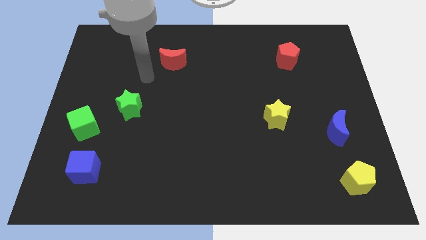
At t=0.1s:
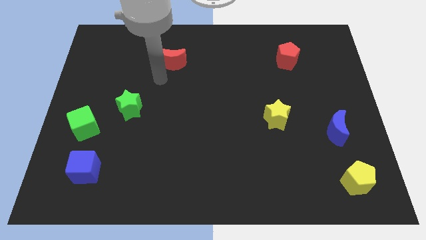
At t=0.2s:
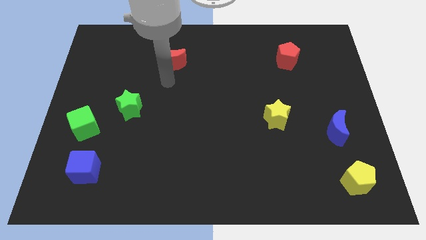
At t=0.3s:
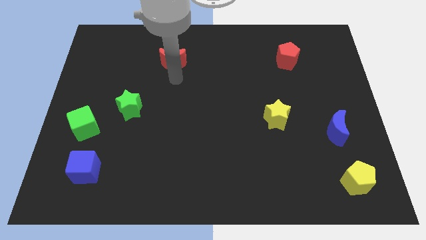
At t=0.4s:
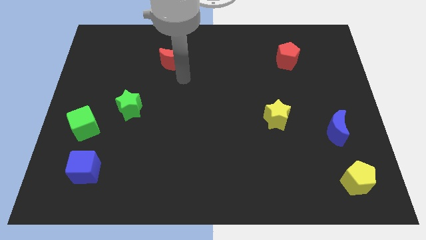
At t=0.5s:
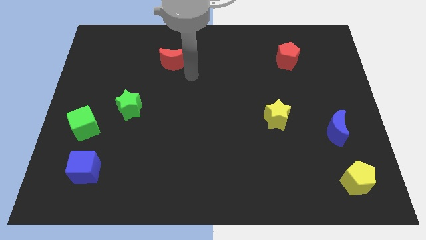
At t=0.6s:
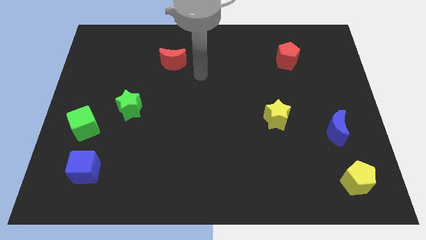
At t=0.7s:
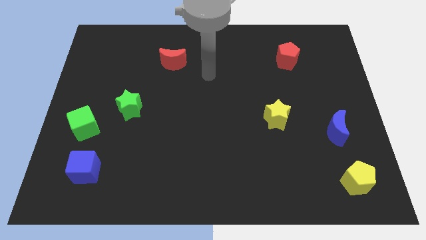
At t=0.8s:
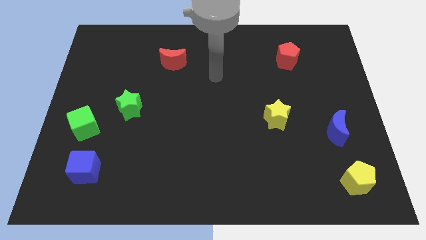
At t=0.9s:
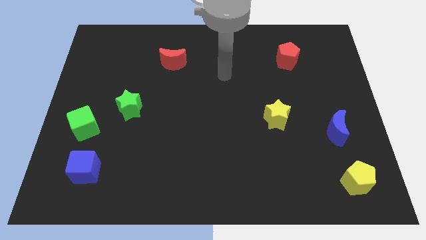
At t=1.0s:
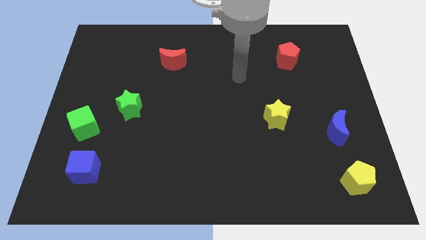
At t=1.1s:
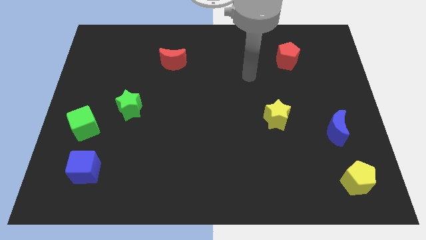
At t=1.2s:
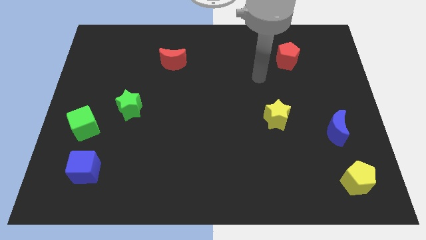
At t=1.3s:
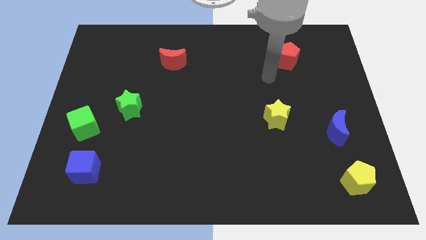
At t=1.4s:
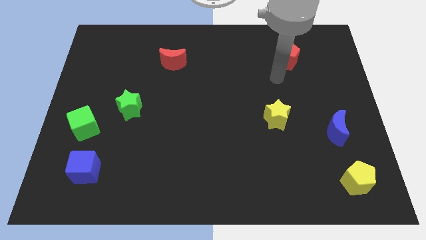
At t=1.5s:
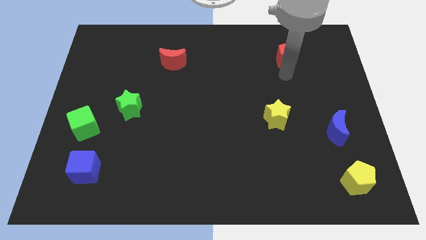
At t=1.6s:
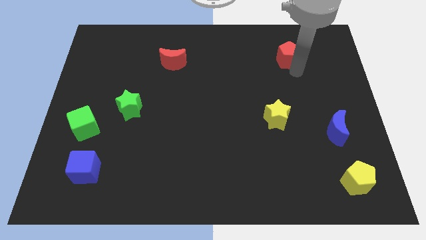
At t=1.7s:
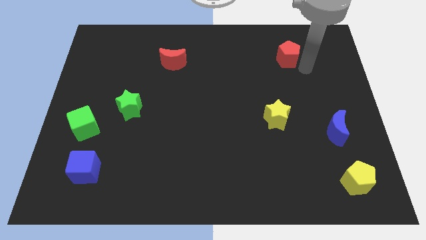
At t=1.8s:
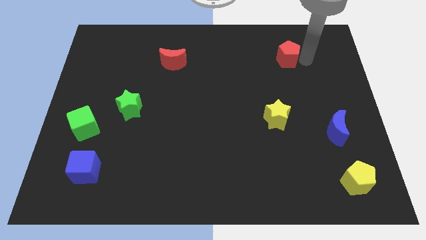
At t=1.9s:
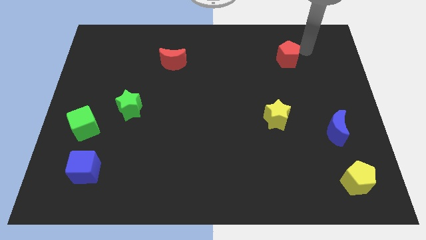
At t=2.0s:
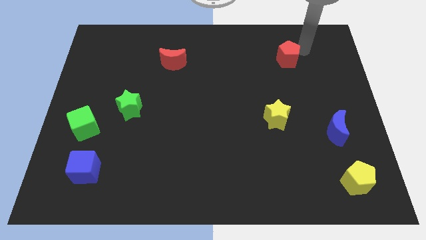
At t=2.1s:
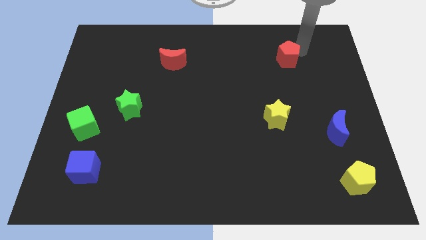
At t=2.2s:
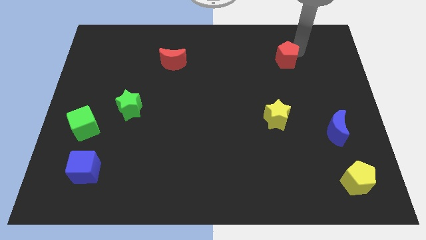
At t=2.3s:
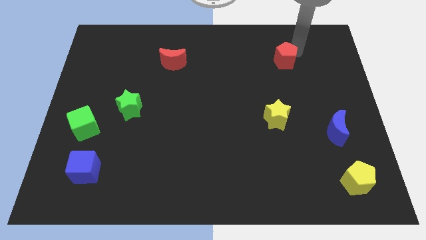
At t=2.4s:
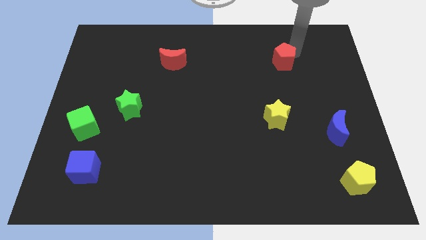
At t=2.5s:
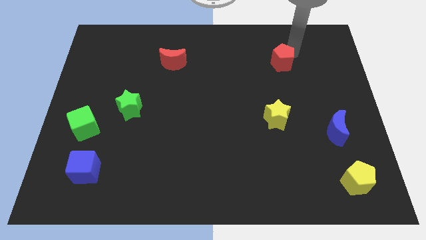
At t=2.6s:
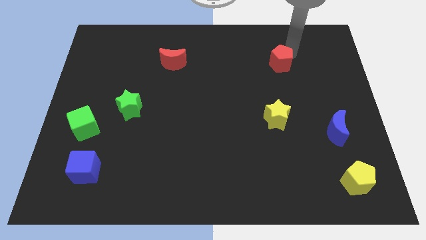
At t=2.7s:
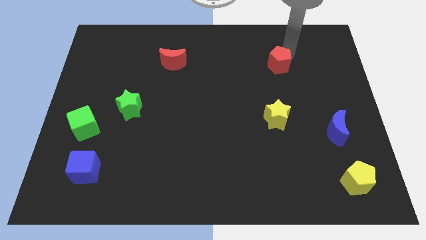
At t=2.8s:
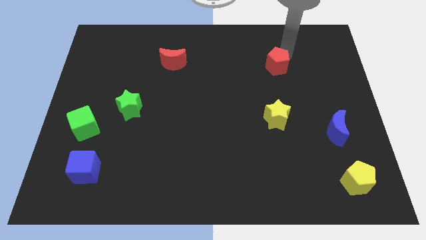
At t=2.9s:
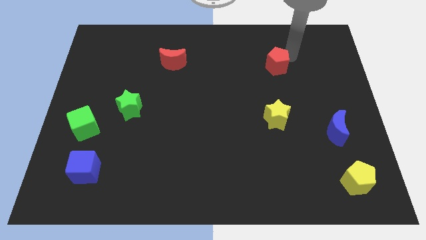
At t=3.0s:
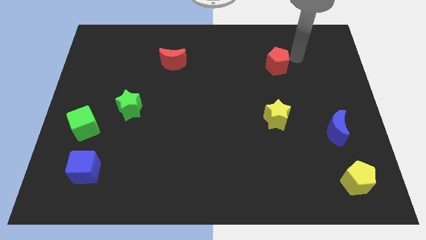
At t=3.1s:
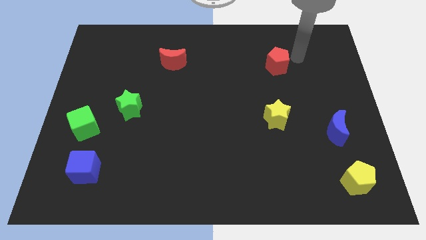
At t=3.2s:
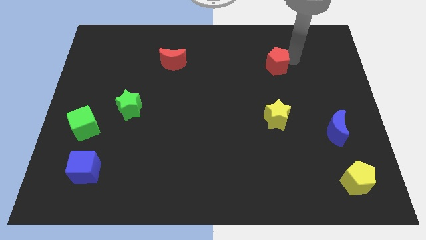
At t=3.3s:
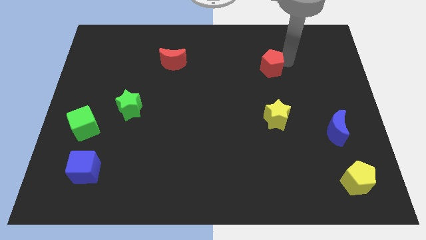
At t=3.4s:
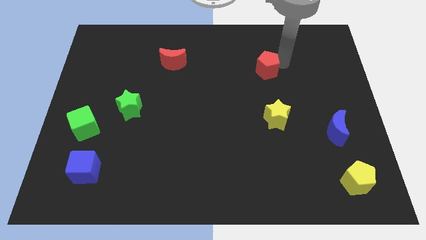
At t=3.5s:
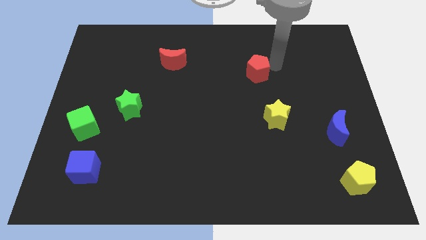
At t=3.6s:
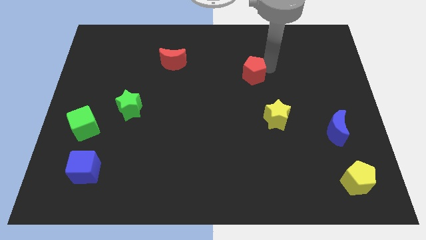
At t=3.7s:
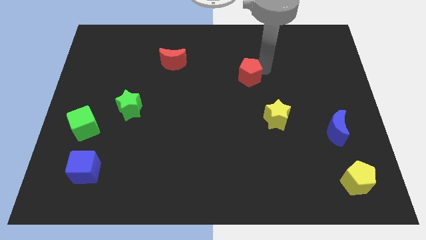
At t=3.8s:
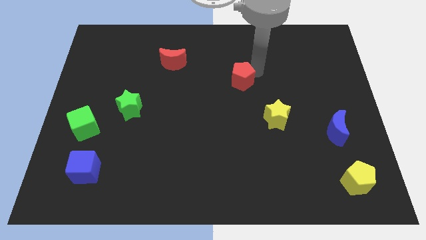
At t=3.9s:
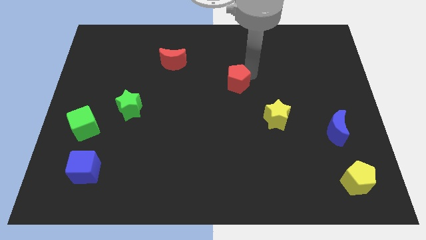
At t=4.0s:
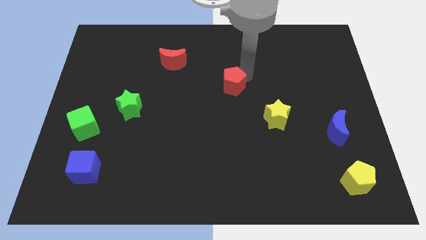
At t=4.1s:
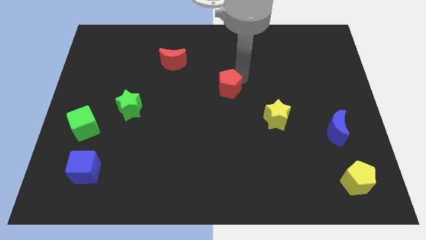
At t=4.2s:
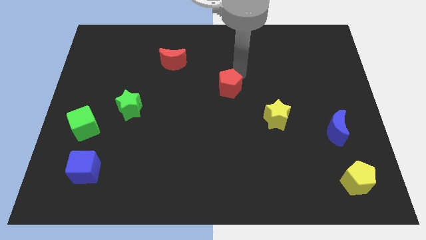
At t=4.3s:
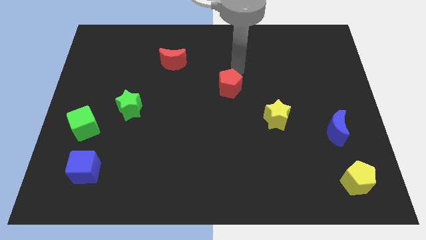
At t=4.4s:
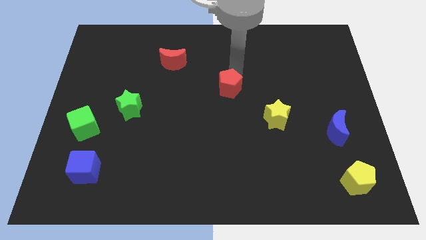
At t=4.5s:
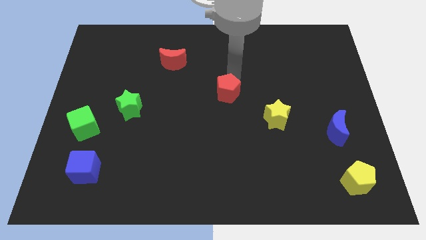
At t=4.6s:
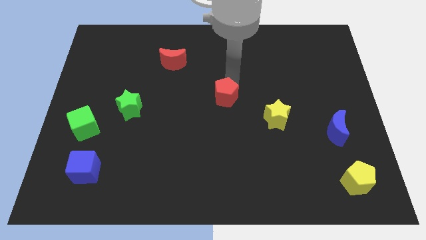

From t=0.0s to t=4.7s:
move the red pentagon down and left

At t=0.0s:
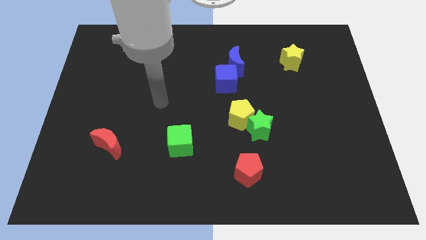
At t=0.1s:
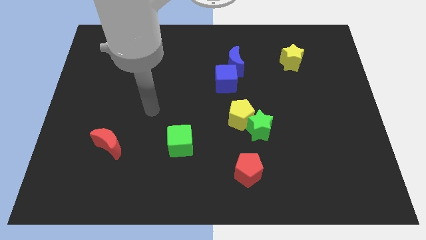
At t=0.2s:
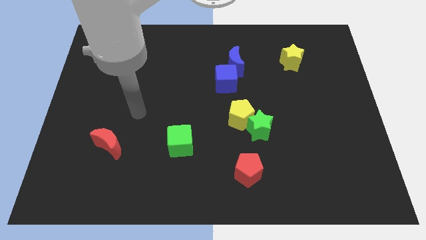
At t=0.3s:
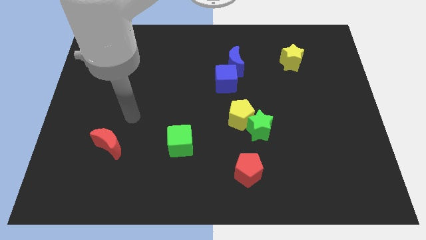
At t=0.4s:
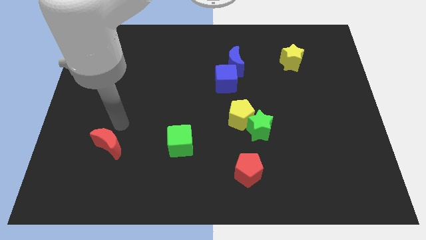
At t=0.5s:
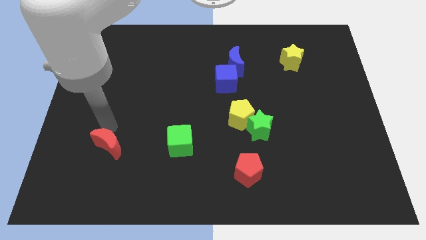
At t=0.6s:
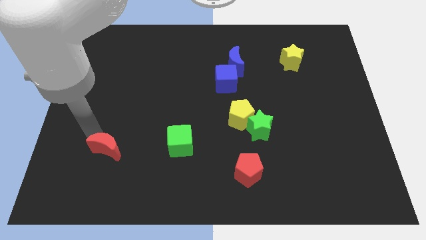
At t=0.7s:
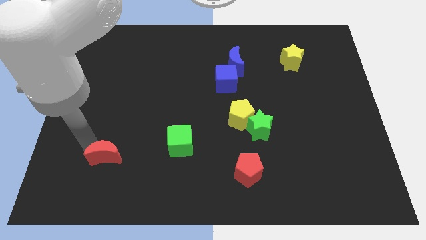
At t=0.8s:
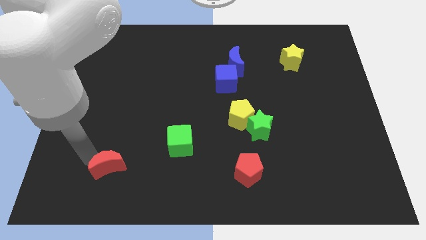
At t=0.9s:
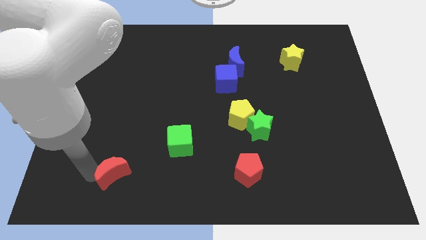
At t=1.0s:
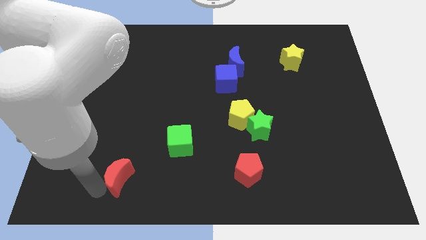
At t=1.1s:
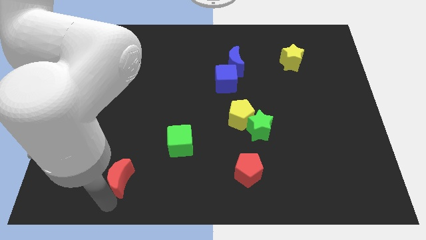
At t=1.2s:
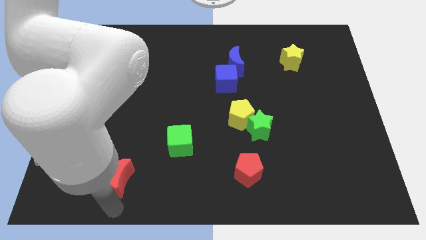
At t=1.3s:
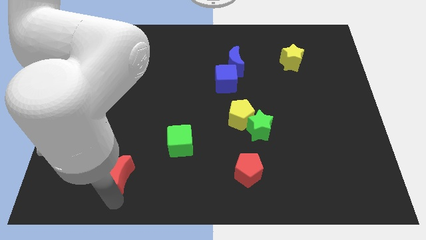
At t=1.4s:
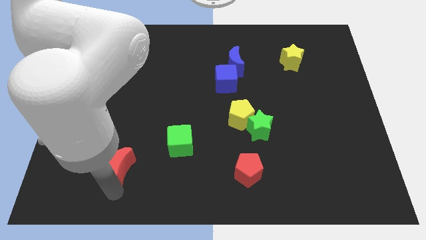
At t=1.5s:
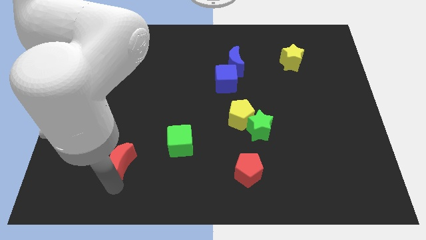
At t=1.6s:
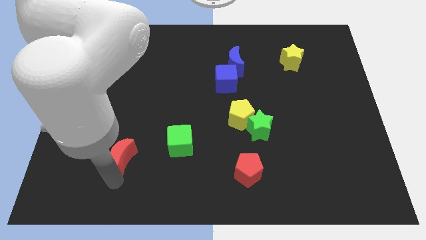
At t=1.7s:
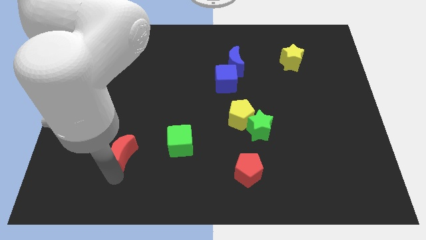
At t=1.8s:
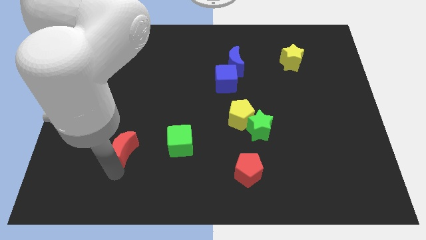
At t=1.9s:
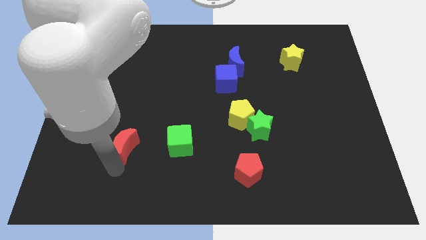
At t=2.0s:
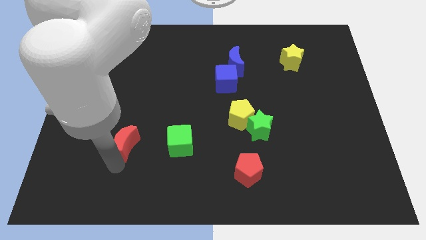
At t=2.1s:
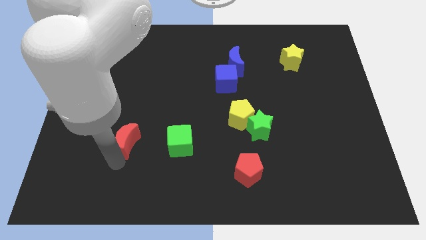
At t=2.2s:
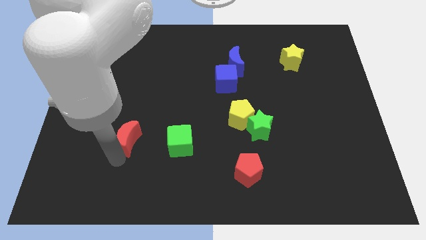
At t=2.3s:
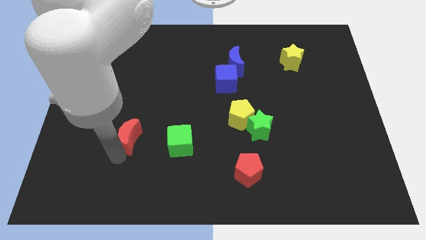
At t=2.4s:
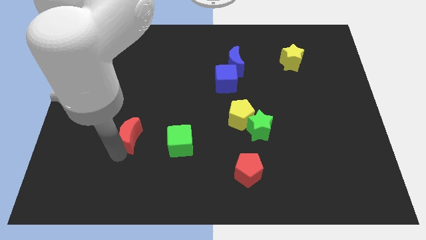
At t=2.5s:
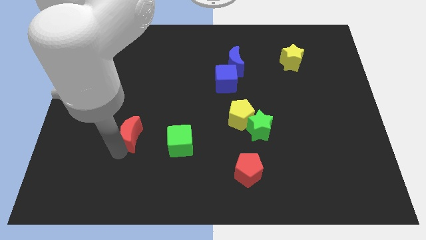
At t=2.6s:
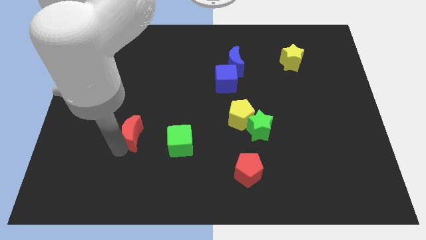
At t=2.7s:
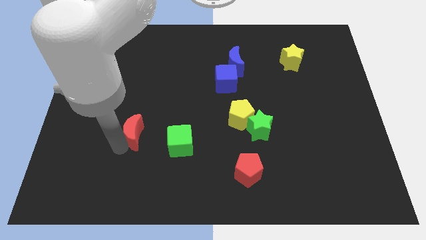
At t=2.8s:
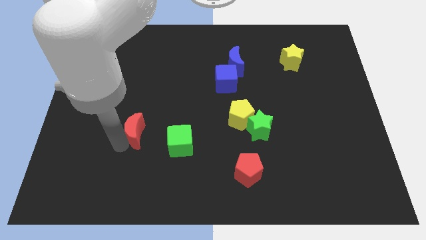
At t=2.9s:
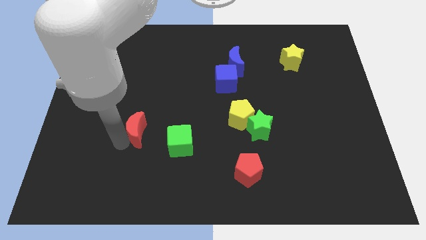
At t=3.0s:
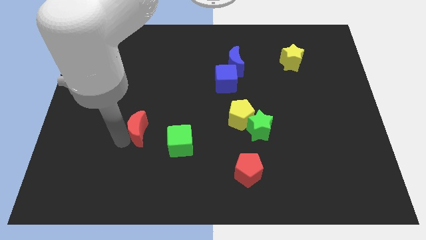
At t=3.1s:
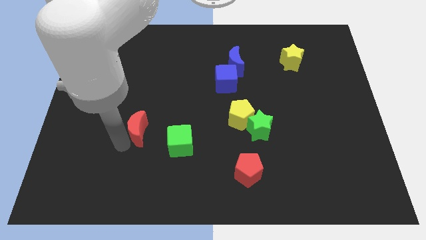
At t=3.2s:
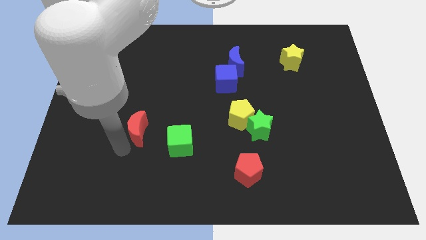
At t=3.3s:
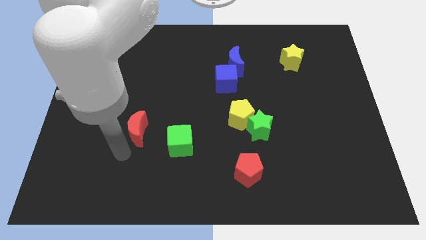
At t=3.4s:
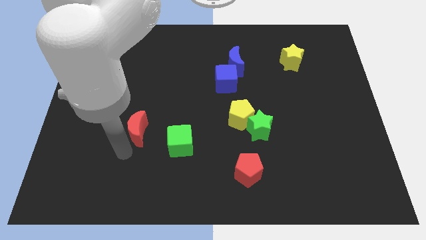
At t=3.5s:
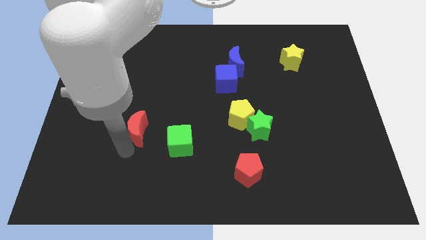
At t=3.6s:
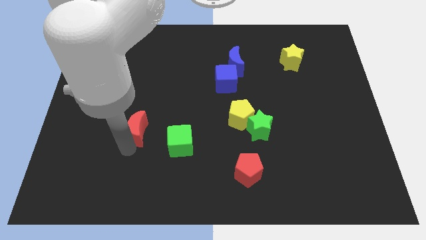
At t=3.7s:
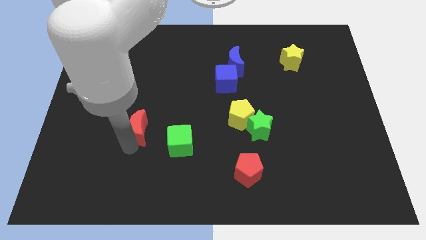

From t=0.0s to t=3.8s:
move the red moon a bit diagonally upwards and right
